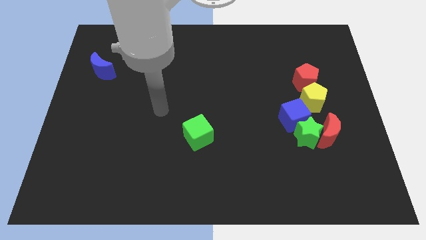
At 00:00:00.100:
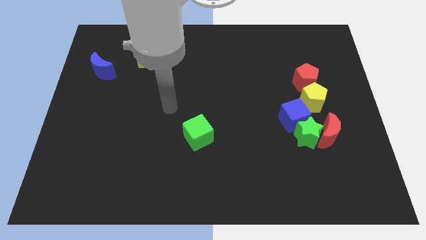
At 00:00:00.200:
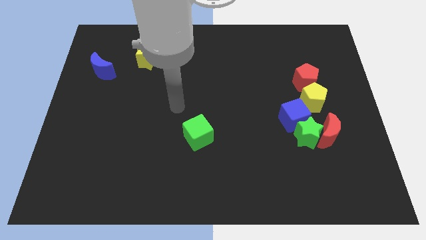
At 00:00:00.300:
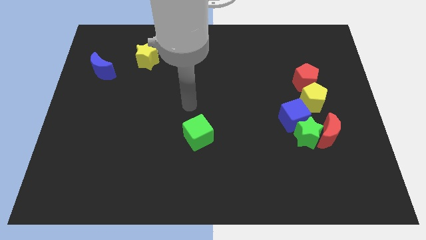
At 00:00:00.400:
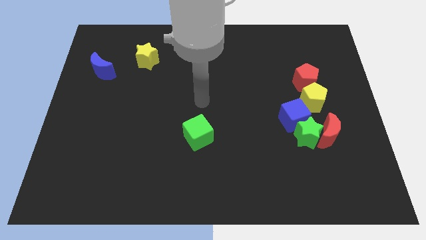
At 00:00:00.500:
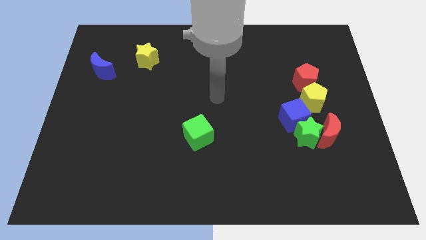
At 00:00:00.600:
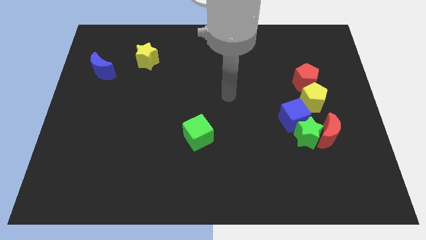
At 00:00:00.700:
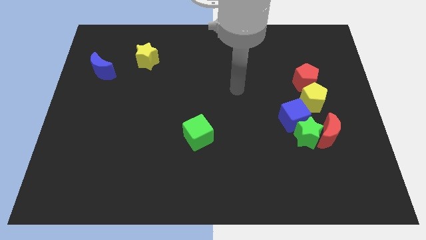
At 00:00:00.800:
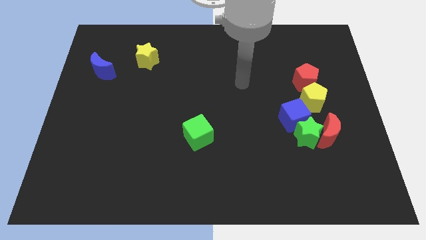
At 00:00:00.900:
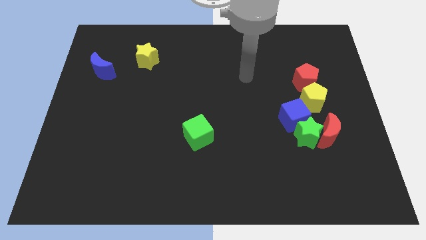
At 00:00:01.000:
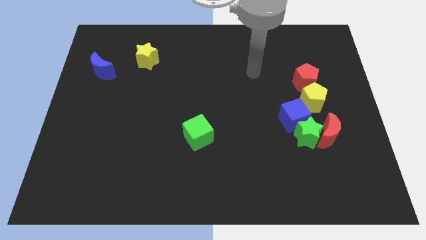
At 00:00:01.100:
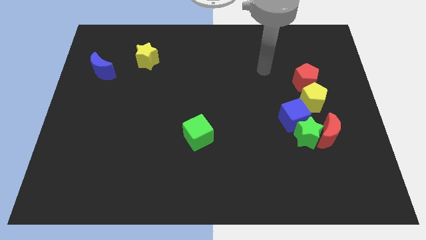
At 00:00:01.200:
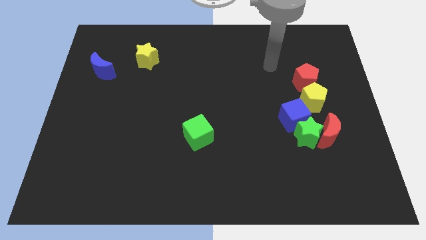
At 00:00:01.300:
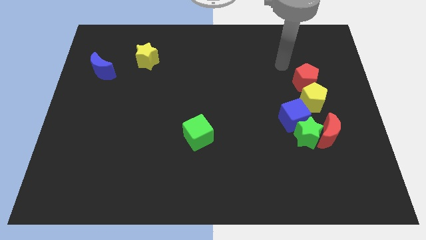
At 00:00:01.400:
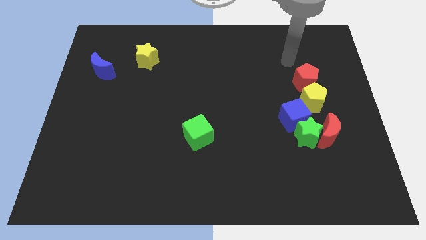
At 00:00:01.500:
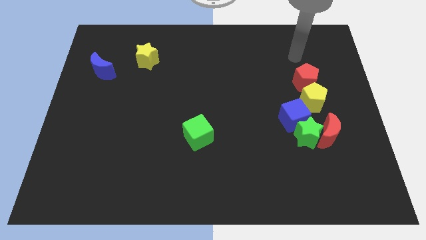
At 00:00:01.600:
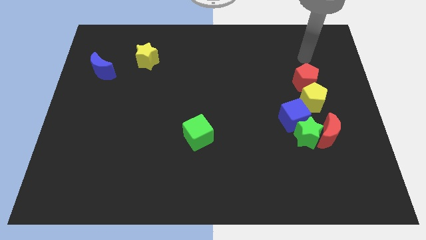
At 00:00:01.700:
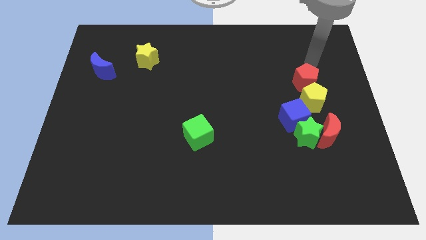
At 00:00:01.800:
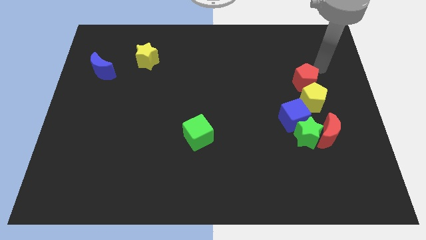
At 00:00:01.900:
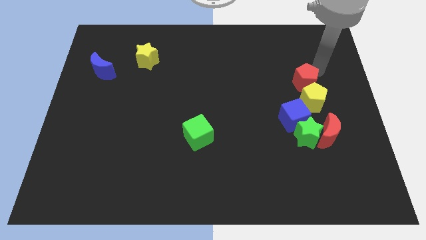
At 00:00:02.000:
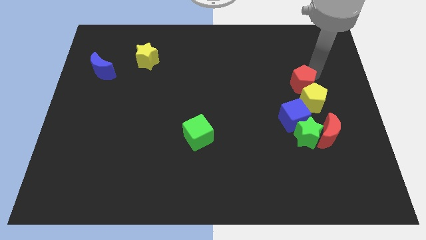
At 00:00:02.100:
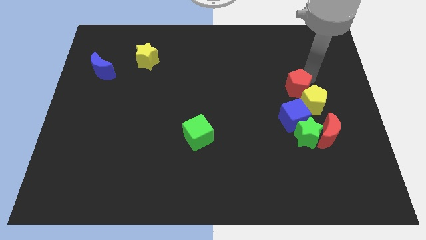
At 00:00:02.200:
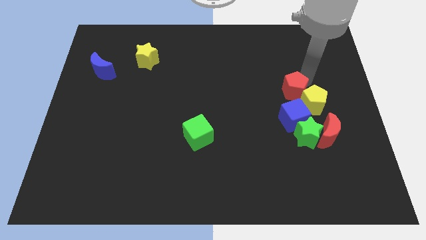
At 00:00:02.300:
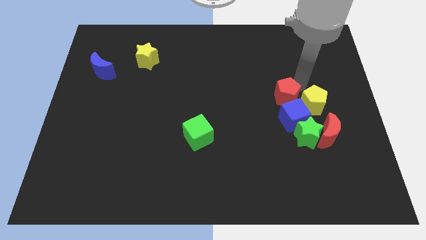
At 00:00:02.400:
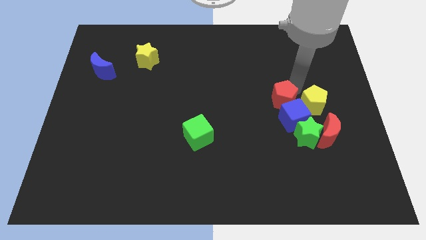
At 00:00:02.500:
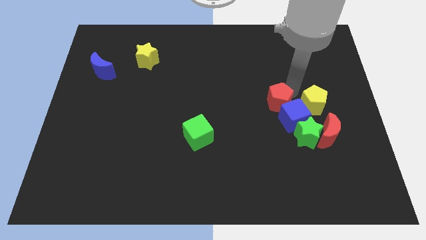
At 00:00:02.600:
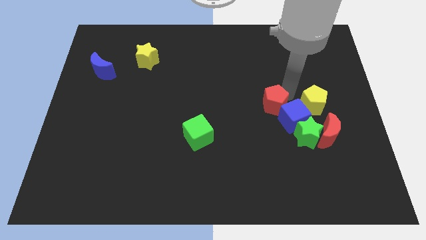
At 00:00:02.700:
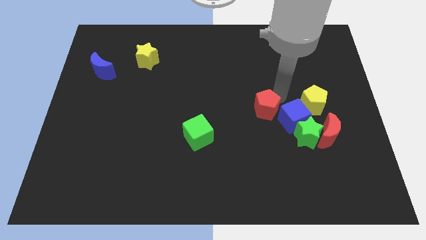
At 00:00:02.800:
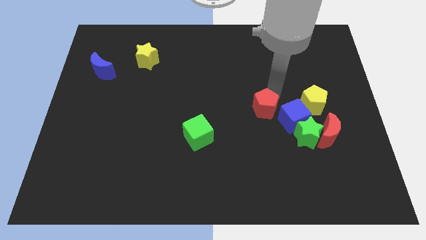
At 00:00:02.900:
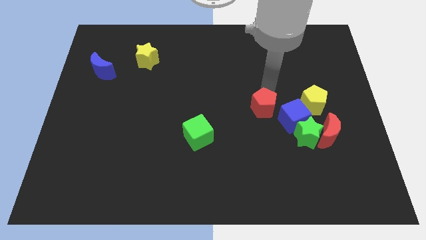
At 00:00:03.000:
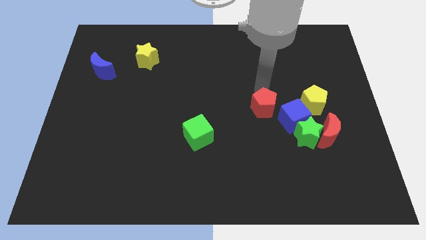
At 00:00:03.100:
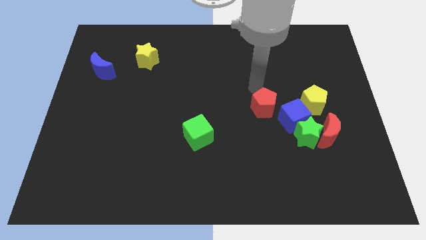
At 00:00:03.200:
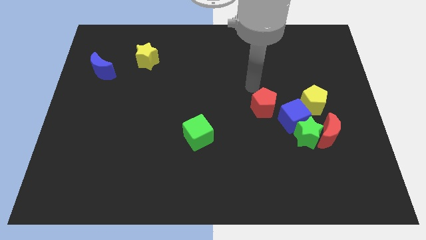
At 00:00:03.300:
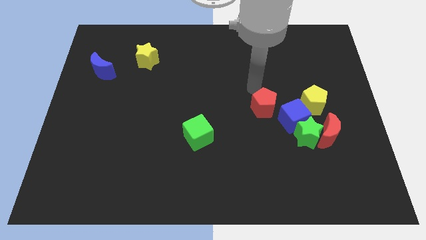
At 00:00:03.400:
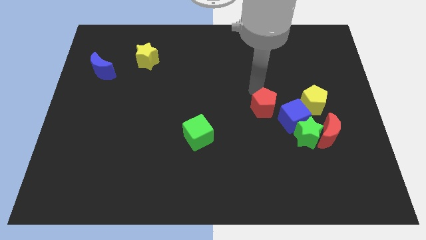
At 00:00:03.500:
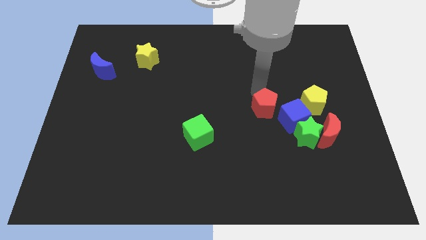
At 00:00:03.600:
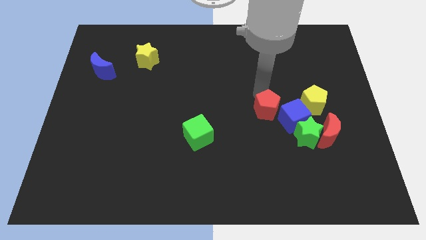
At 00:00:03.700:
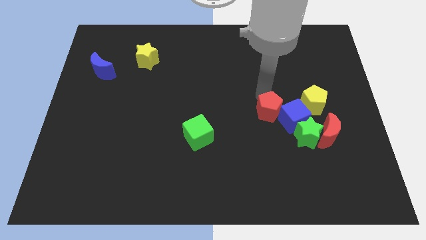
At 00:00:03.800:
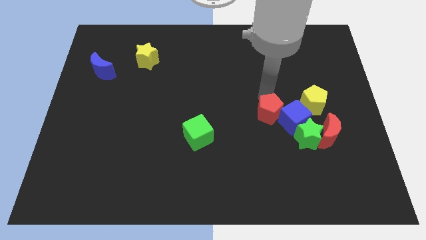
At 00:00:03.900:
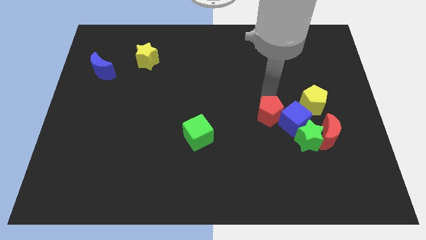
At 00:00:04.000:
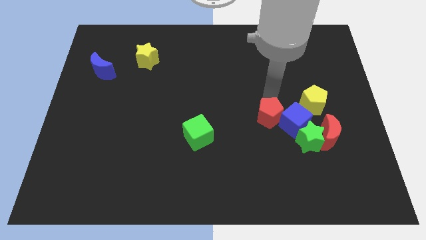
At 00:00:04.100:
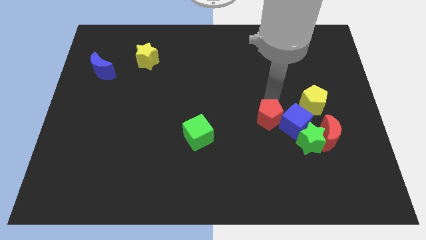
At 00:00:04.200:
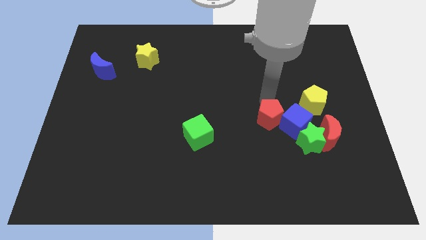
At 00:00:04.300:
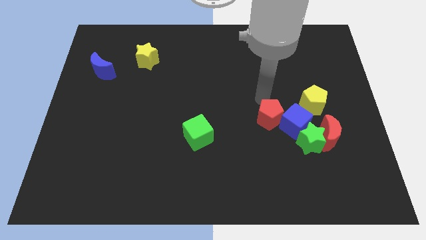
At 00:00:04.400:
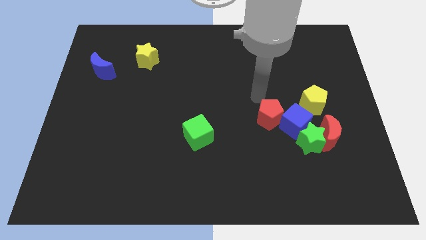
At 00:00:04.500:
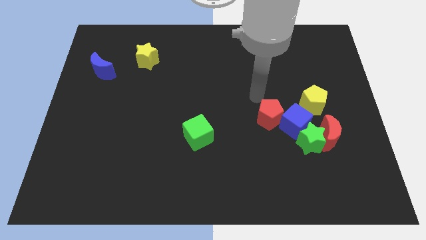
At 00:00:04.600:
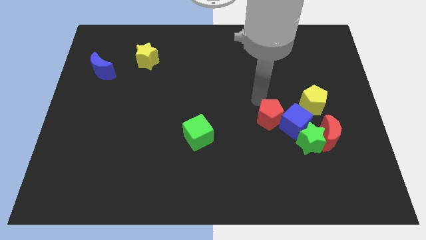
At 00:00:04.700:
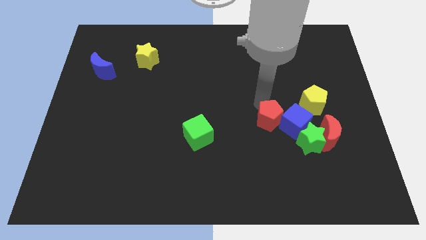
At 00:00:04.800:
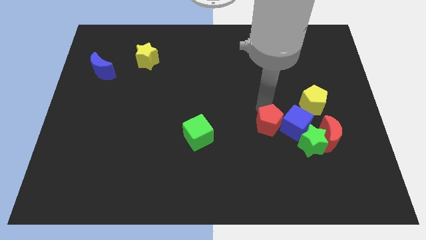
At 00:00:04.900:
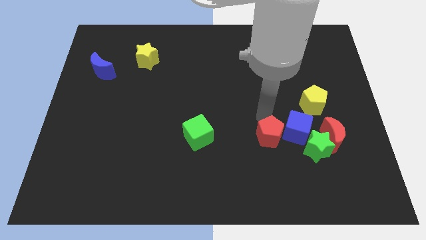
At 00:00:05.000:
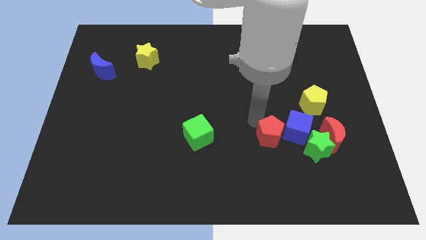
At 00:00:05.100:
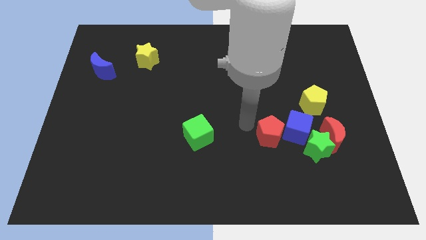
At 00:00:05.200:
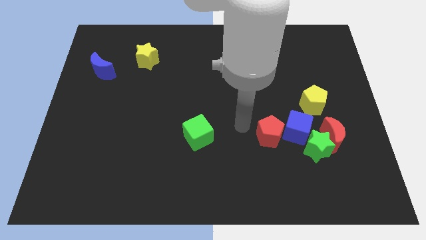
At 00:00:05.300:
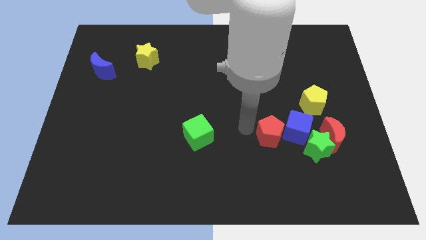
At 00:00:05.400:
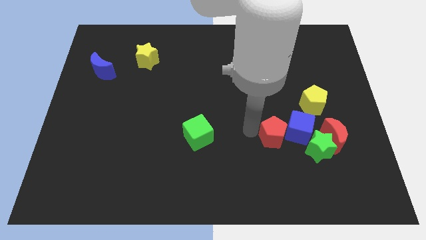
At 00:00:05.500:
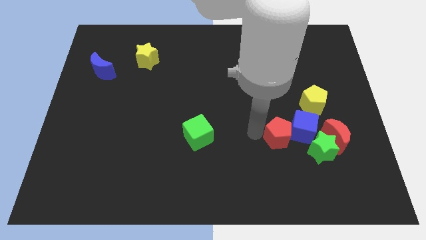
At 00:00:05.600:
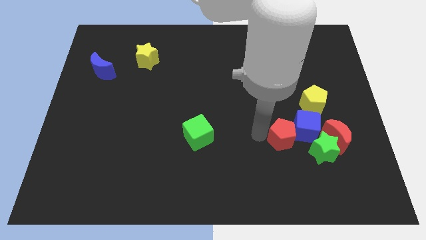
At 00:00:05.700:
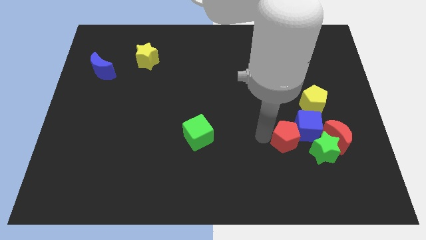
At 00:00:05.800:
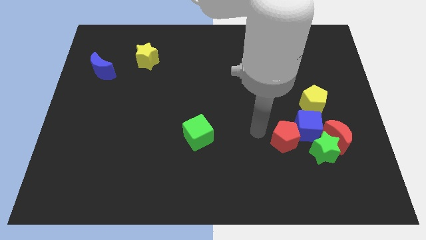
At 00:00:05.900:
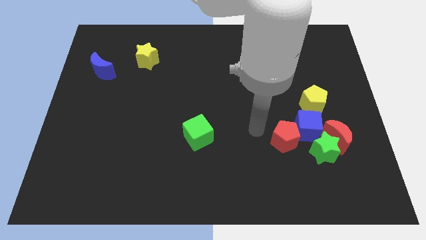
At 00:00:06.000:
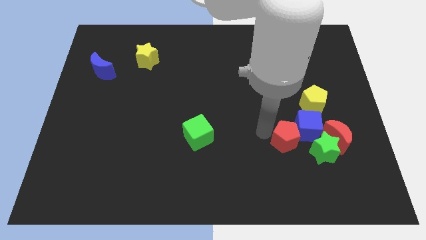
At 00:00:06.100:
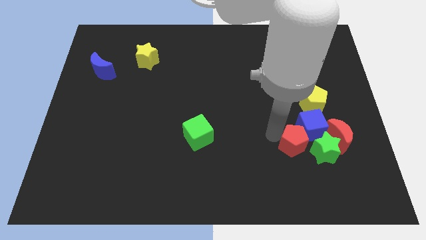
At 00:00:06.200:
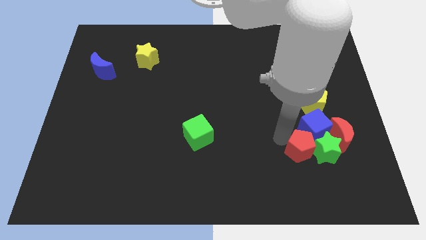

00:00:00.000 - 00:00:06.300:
push the red pentagon to the green star

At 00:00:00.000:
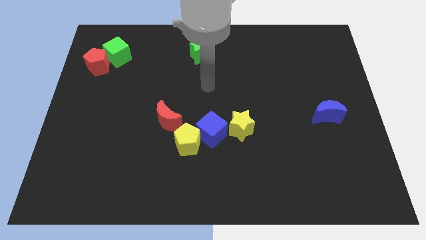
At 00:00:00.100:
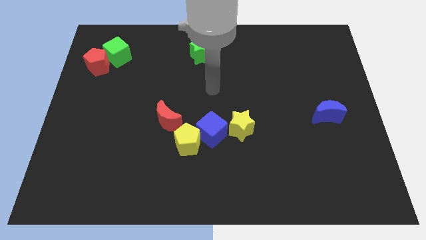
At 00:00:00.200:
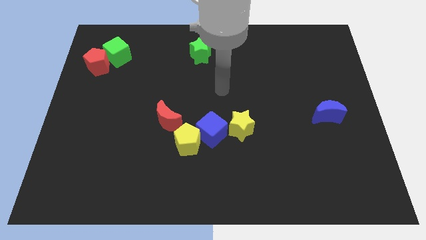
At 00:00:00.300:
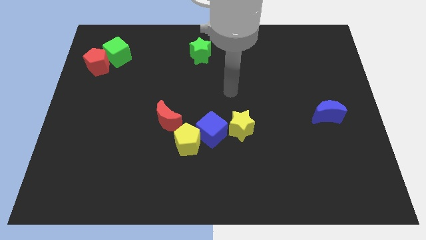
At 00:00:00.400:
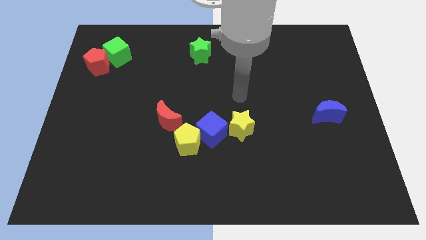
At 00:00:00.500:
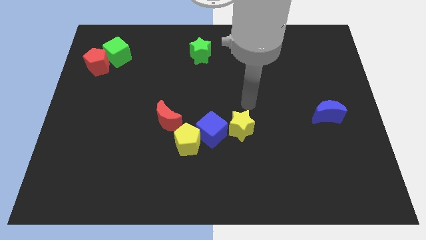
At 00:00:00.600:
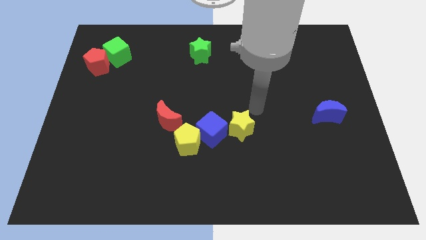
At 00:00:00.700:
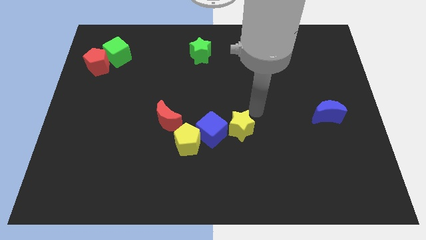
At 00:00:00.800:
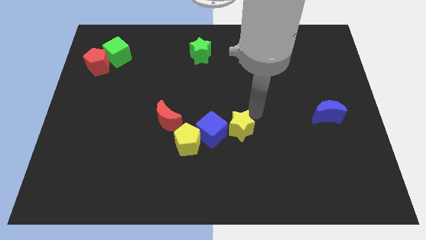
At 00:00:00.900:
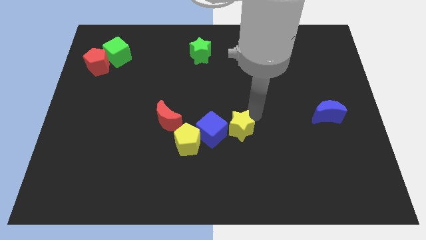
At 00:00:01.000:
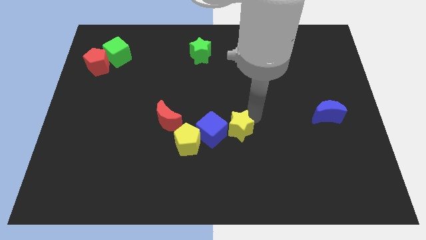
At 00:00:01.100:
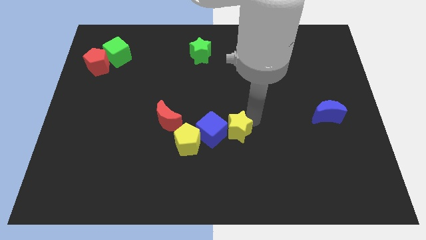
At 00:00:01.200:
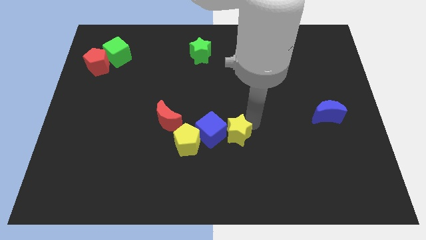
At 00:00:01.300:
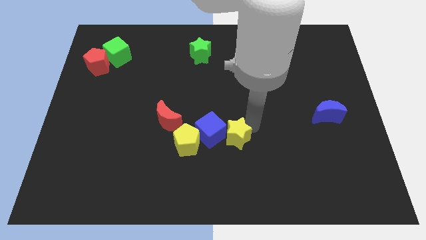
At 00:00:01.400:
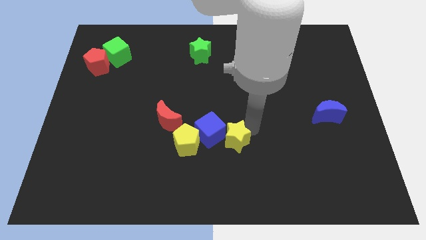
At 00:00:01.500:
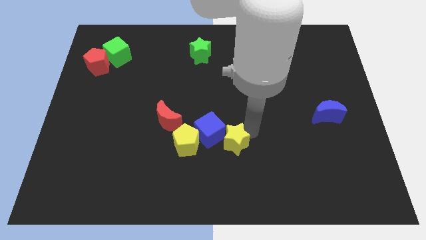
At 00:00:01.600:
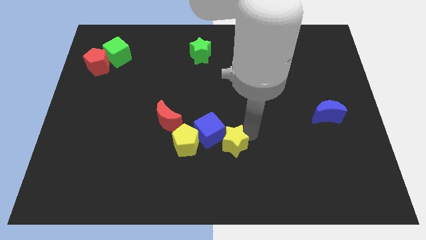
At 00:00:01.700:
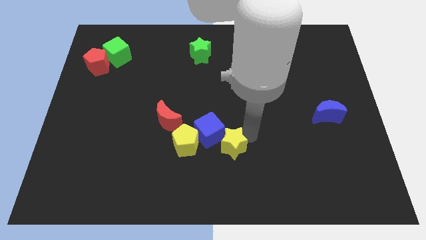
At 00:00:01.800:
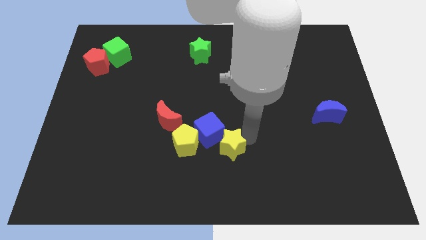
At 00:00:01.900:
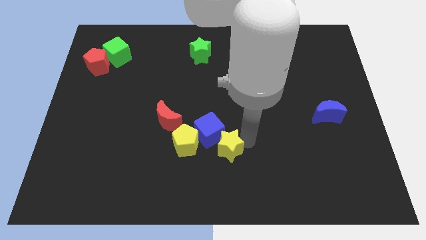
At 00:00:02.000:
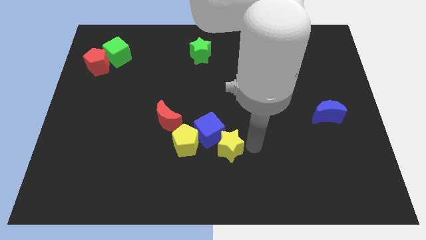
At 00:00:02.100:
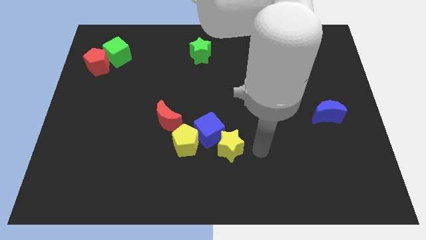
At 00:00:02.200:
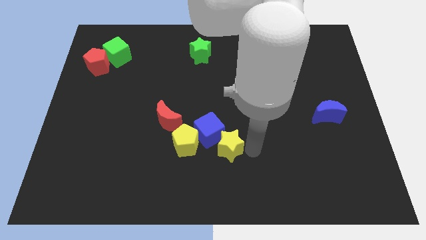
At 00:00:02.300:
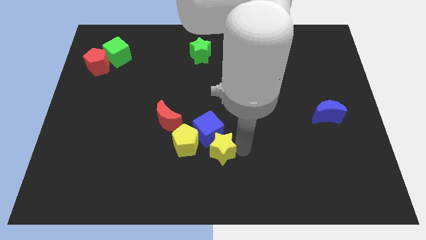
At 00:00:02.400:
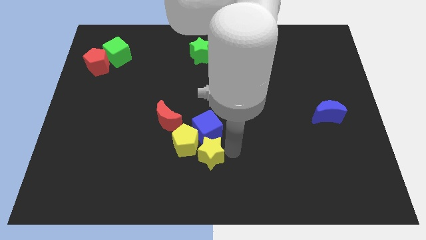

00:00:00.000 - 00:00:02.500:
push the yellow star next to the yellow pentagon
